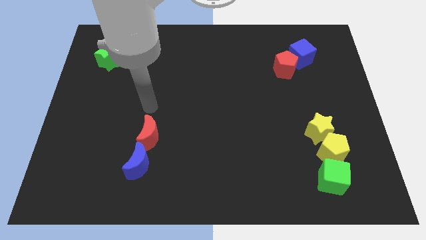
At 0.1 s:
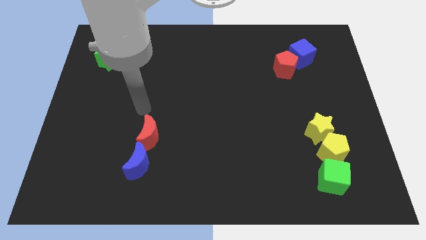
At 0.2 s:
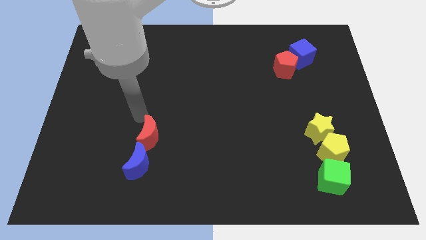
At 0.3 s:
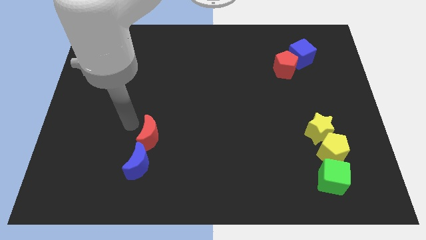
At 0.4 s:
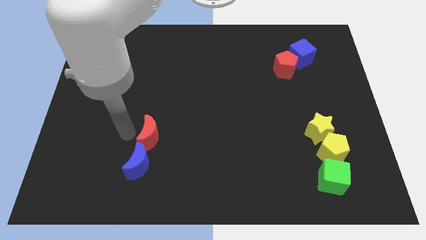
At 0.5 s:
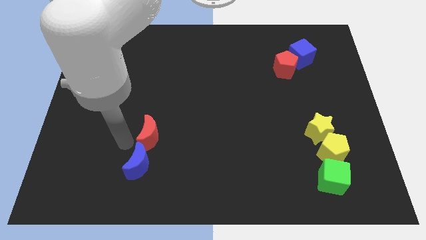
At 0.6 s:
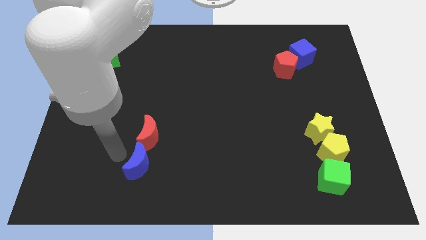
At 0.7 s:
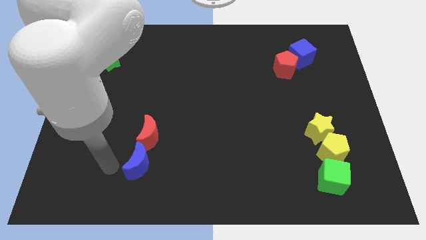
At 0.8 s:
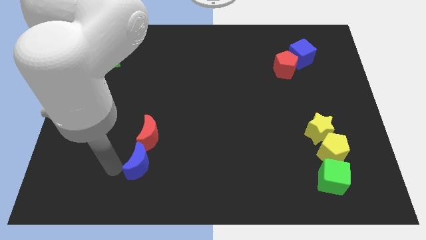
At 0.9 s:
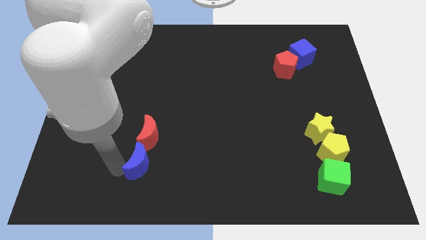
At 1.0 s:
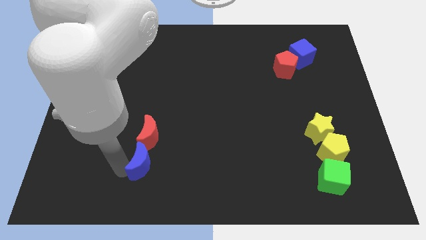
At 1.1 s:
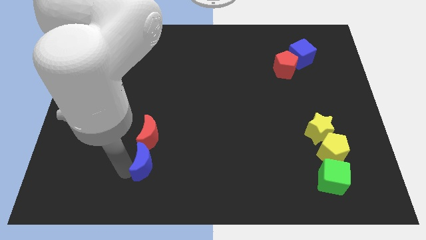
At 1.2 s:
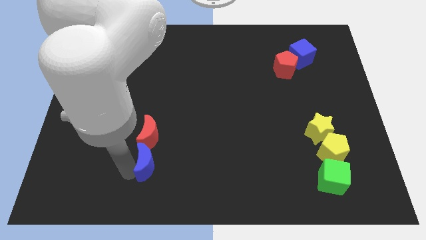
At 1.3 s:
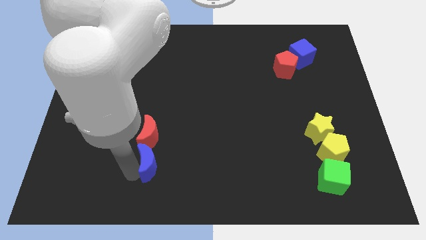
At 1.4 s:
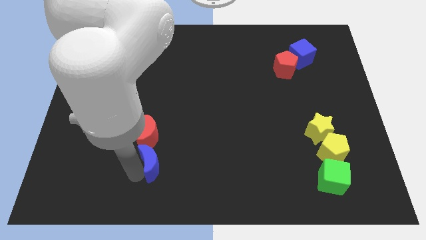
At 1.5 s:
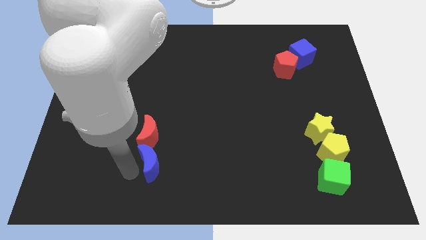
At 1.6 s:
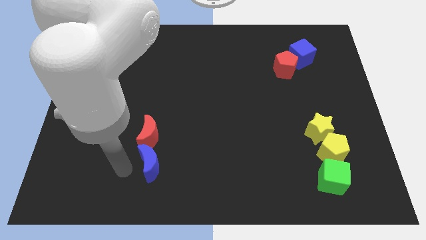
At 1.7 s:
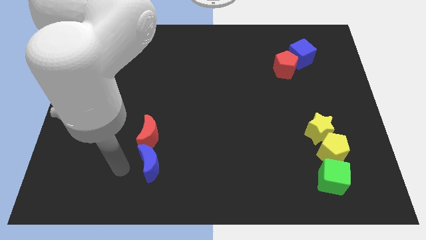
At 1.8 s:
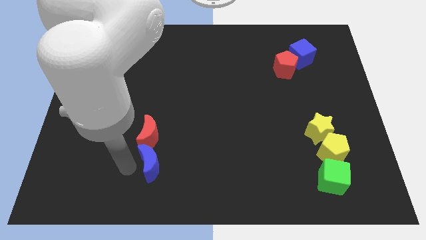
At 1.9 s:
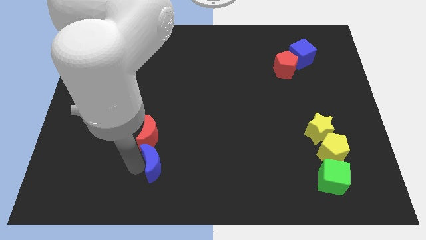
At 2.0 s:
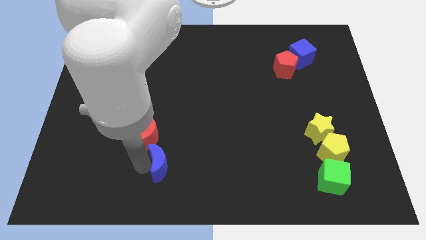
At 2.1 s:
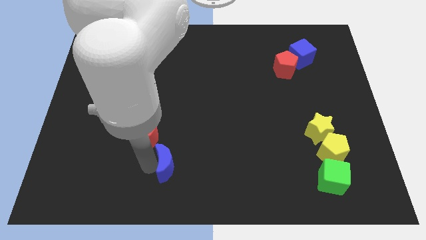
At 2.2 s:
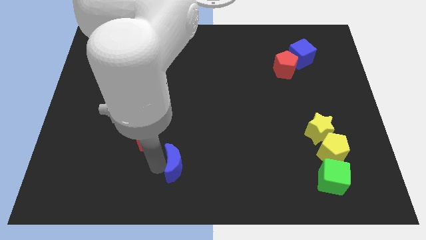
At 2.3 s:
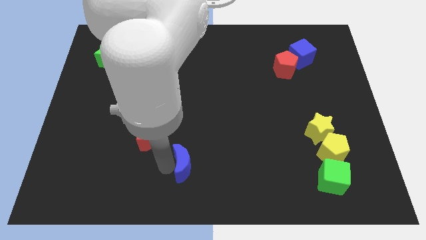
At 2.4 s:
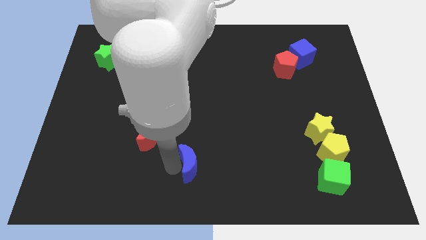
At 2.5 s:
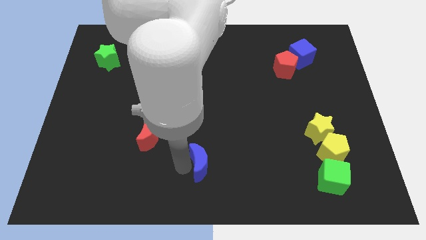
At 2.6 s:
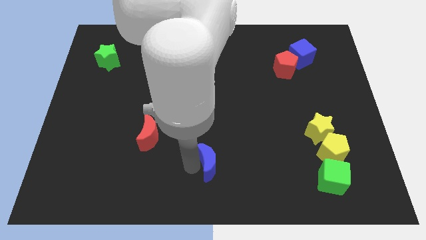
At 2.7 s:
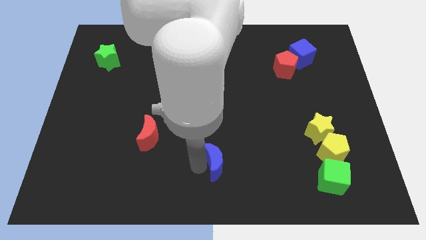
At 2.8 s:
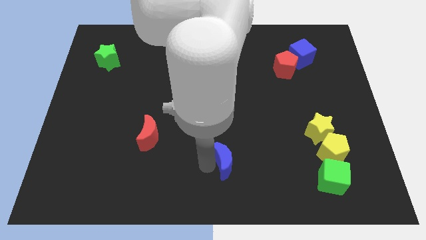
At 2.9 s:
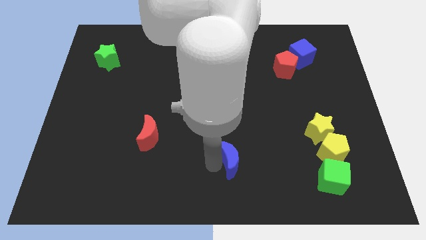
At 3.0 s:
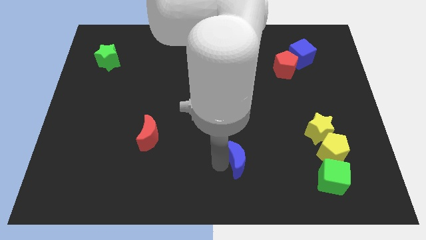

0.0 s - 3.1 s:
move the blue moon to the right

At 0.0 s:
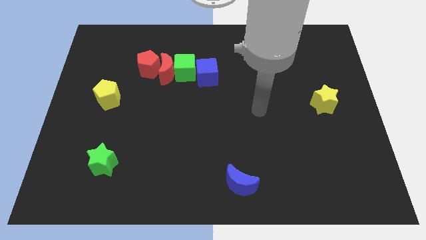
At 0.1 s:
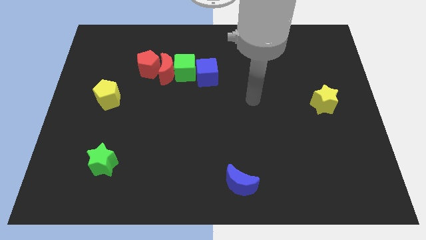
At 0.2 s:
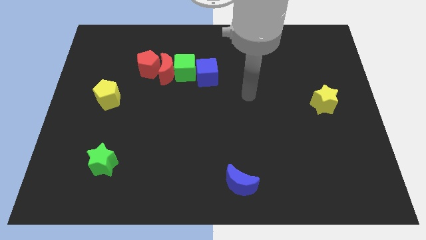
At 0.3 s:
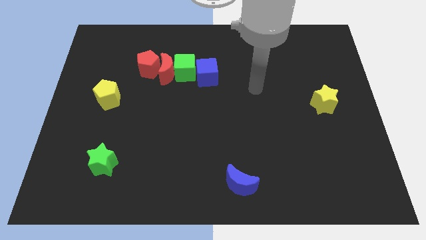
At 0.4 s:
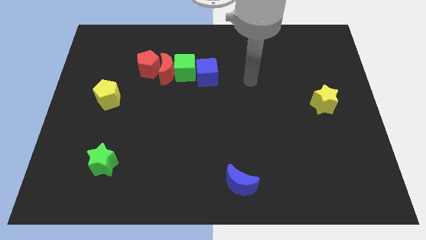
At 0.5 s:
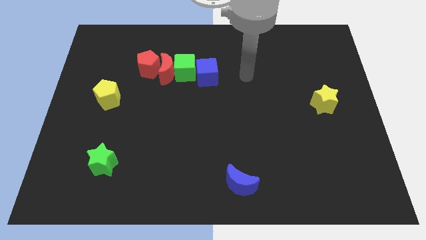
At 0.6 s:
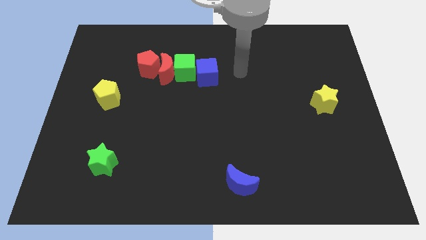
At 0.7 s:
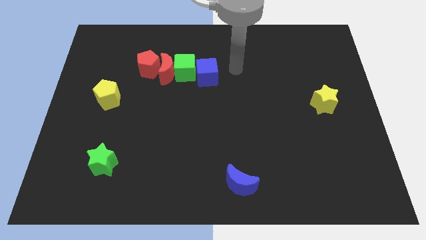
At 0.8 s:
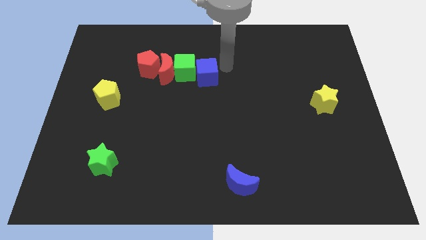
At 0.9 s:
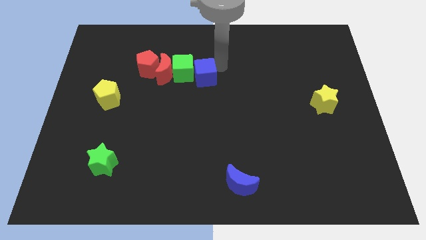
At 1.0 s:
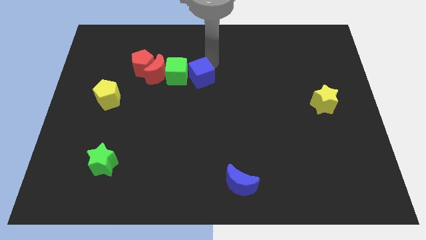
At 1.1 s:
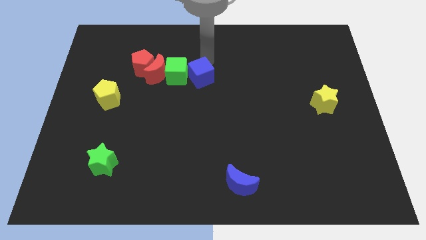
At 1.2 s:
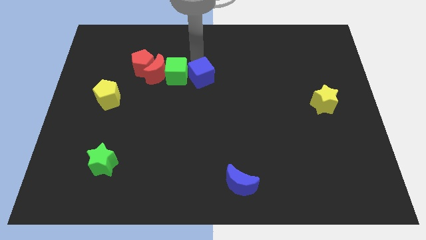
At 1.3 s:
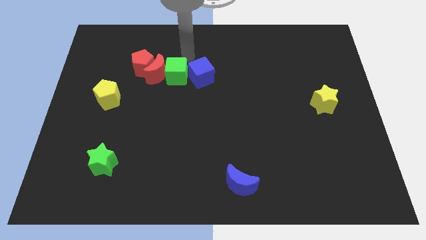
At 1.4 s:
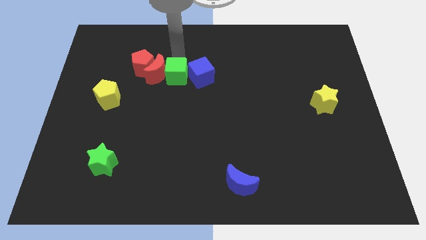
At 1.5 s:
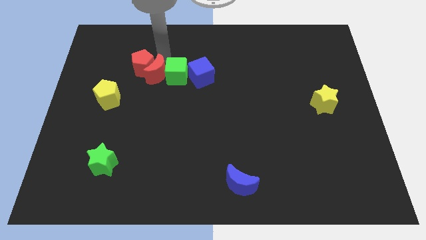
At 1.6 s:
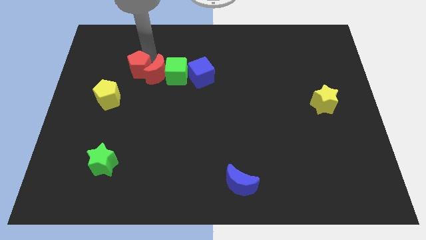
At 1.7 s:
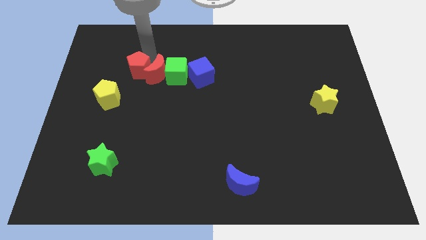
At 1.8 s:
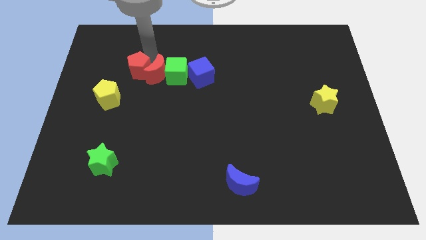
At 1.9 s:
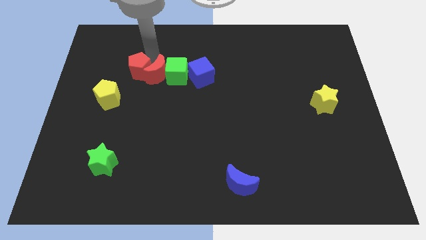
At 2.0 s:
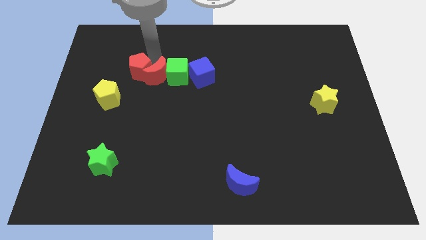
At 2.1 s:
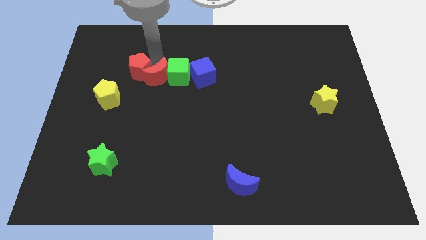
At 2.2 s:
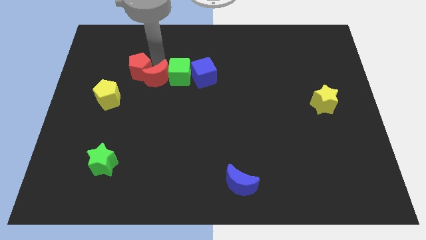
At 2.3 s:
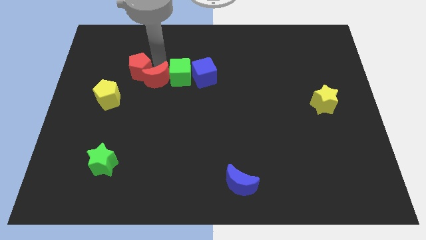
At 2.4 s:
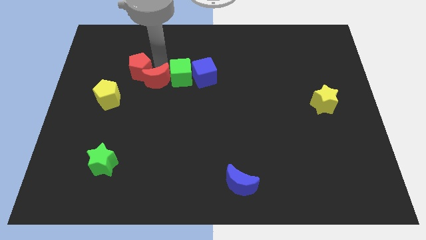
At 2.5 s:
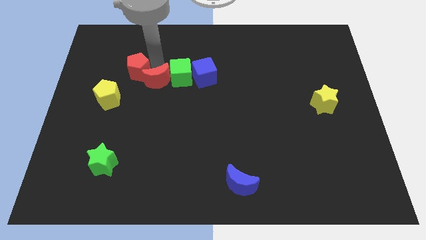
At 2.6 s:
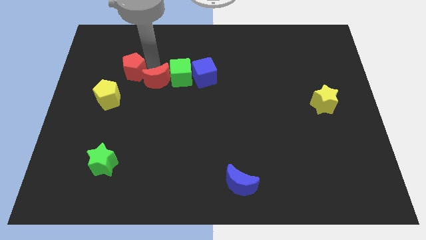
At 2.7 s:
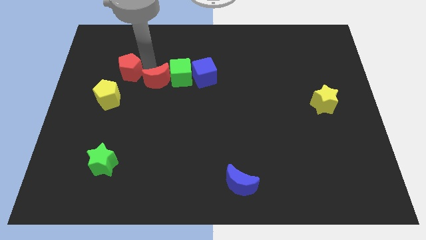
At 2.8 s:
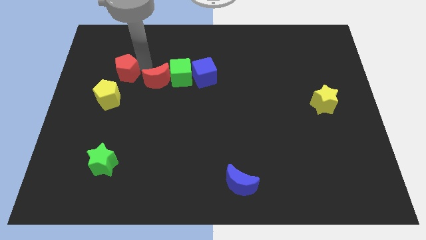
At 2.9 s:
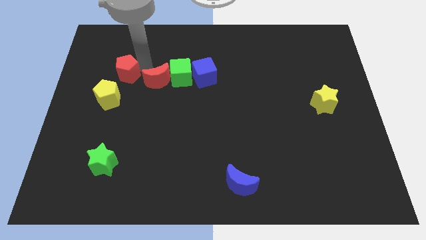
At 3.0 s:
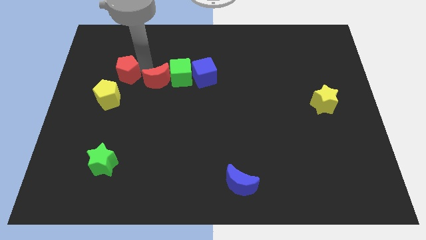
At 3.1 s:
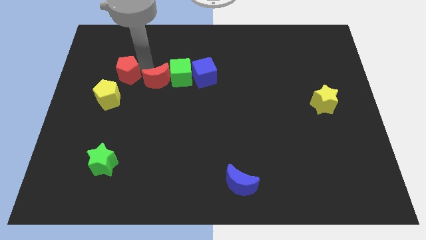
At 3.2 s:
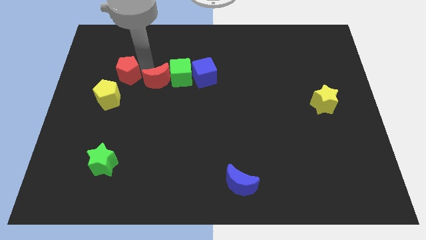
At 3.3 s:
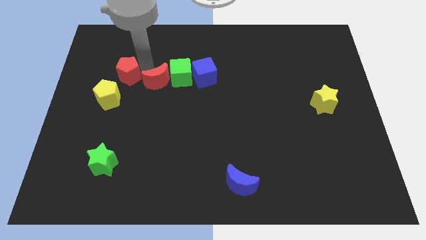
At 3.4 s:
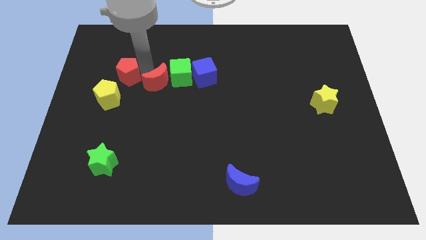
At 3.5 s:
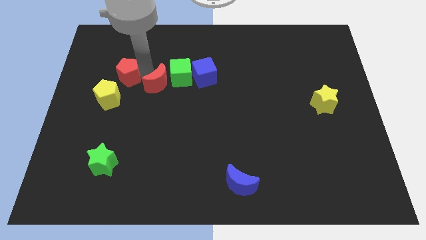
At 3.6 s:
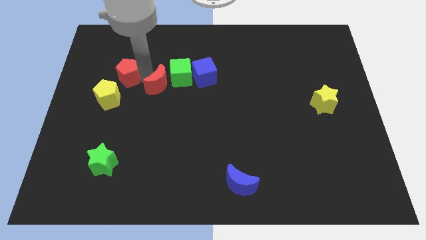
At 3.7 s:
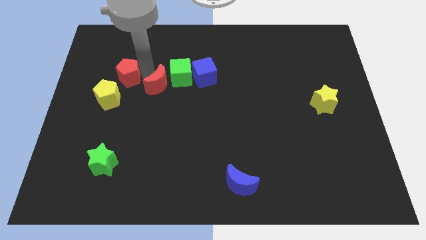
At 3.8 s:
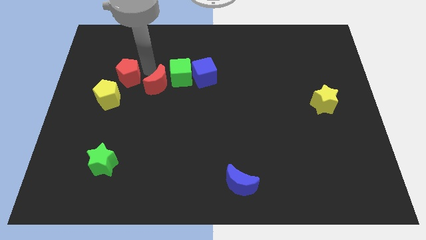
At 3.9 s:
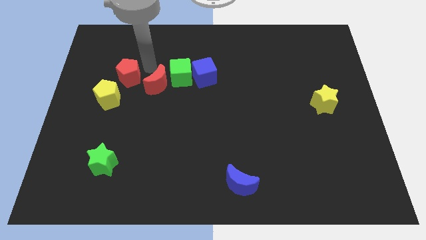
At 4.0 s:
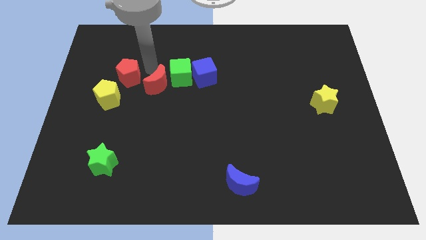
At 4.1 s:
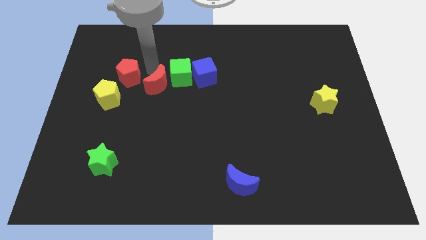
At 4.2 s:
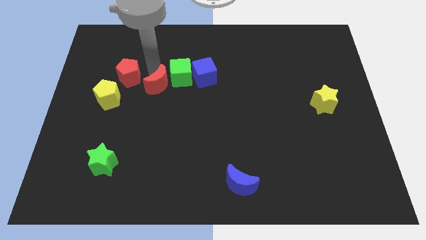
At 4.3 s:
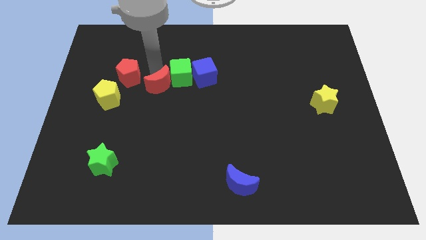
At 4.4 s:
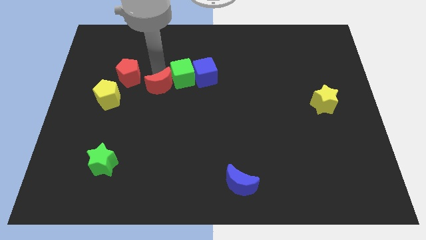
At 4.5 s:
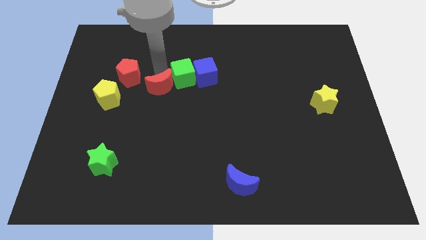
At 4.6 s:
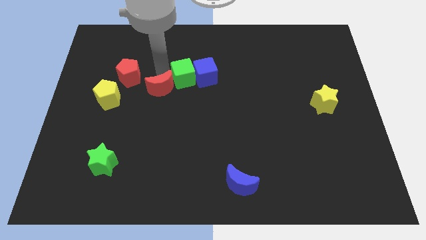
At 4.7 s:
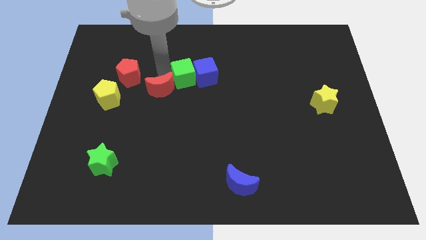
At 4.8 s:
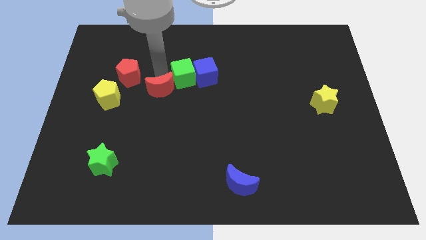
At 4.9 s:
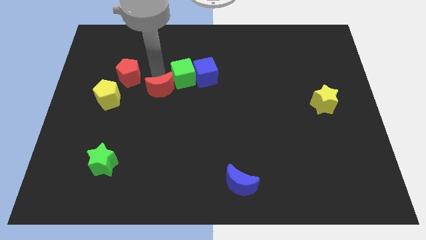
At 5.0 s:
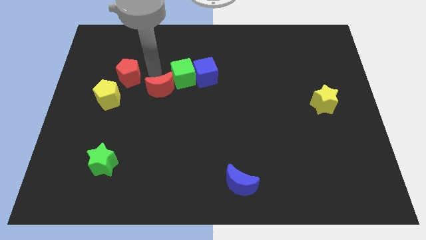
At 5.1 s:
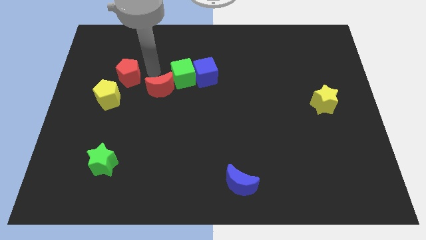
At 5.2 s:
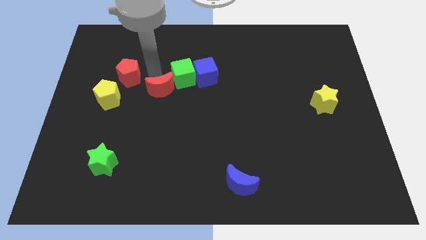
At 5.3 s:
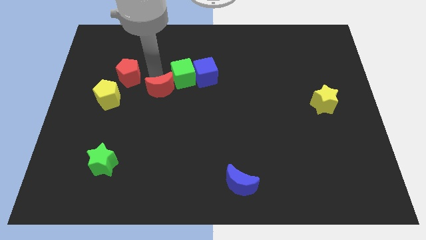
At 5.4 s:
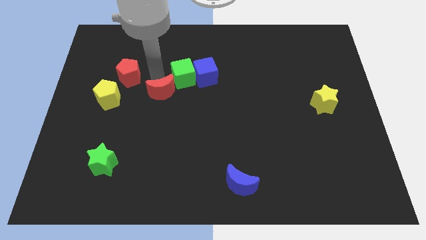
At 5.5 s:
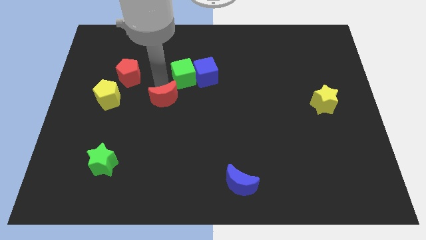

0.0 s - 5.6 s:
push the red moon a bit down
